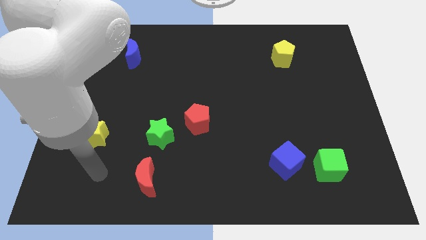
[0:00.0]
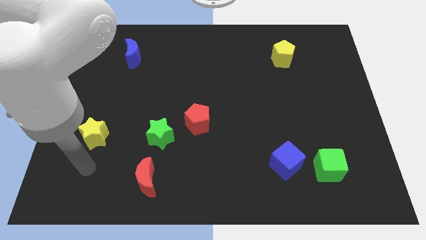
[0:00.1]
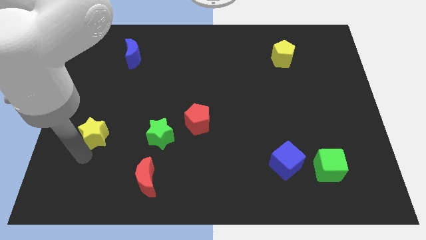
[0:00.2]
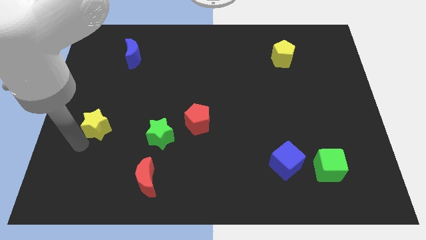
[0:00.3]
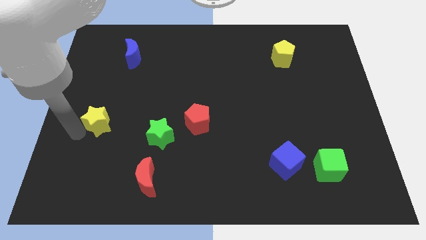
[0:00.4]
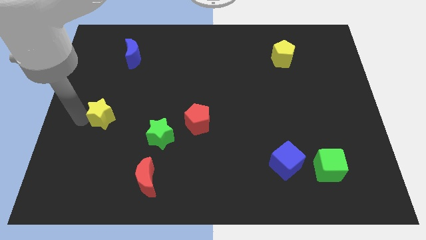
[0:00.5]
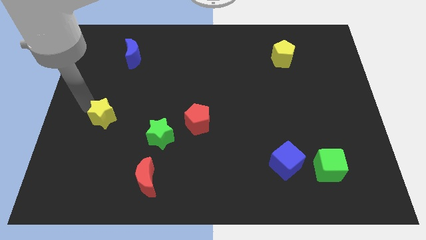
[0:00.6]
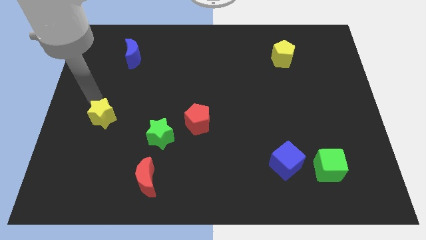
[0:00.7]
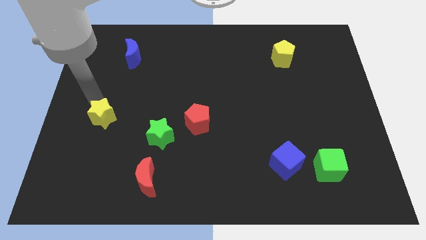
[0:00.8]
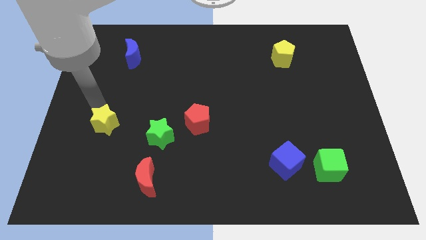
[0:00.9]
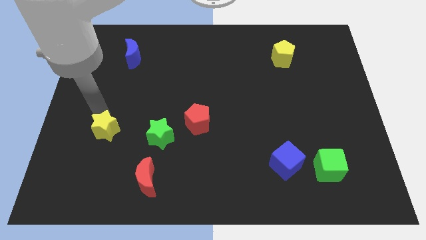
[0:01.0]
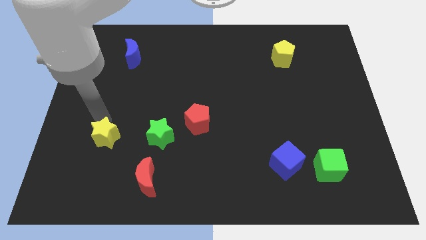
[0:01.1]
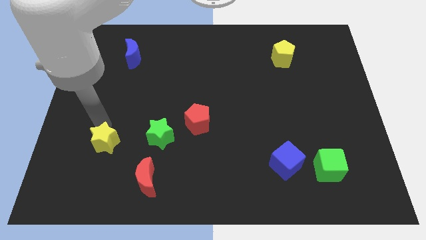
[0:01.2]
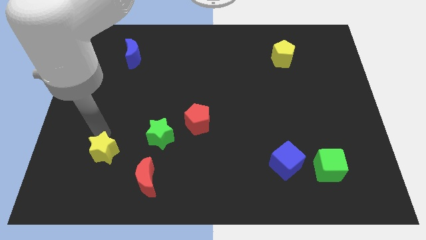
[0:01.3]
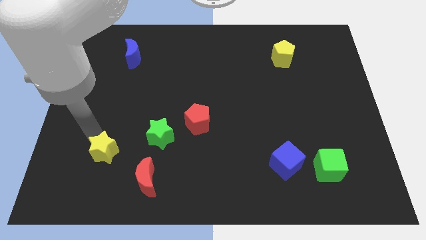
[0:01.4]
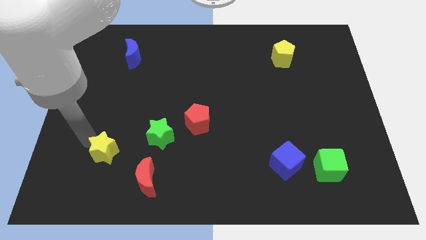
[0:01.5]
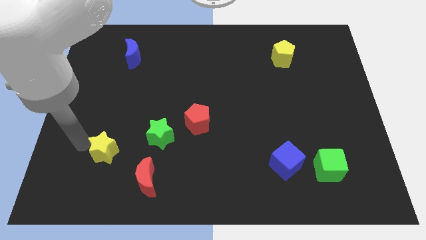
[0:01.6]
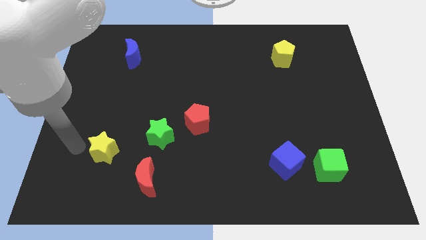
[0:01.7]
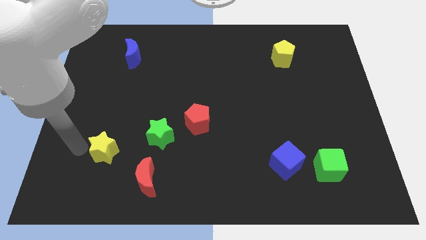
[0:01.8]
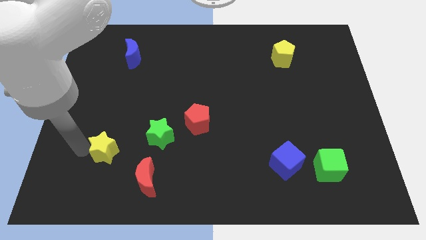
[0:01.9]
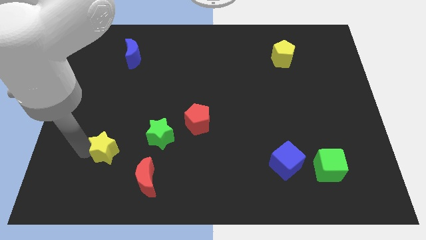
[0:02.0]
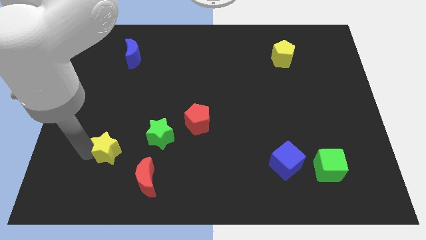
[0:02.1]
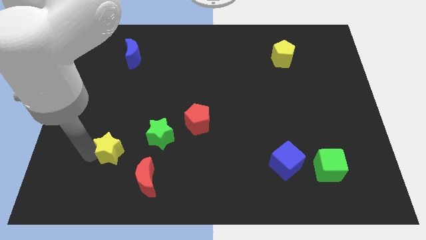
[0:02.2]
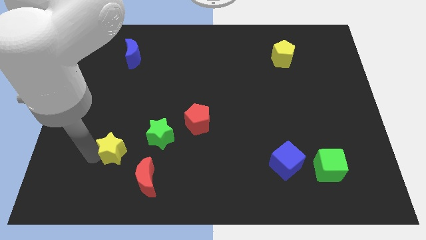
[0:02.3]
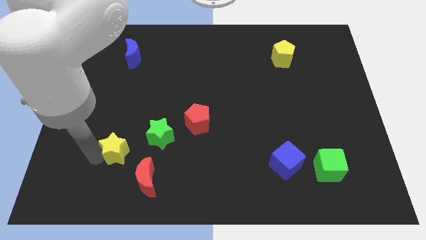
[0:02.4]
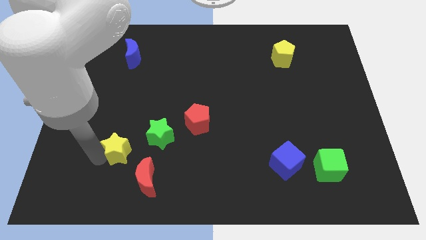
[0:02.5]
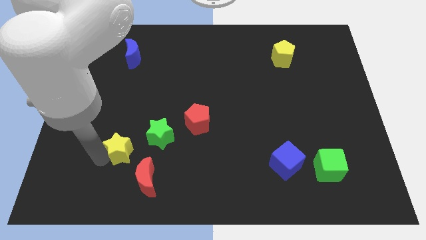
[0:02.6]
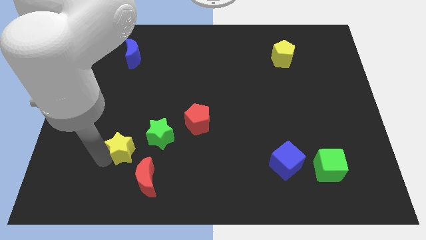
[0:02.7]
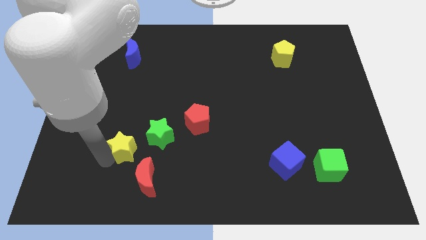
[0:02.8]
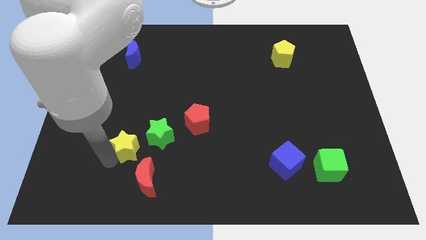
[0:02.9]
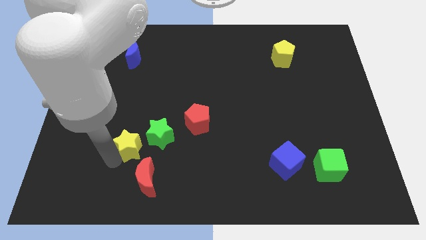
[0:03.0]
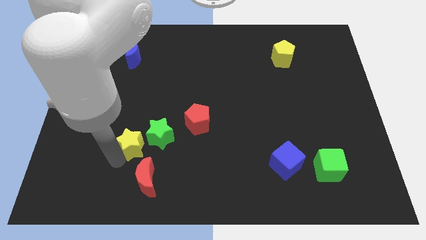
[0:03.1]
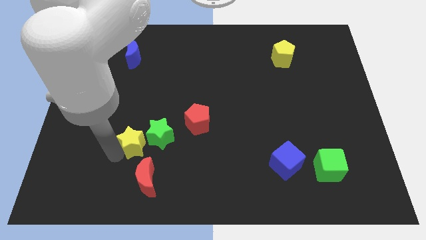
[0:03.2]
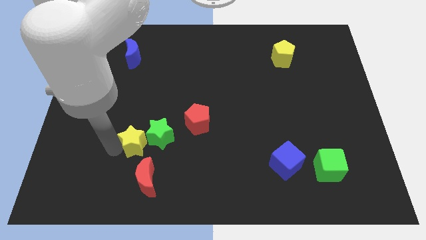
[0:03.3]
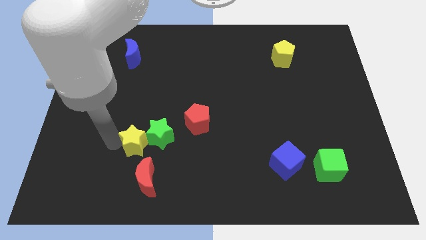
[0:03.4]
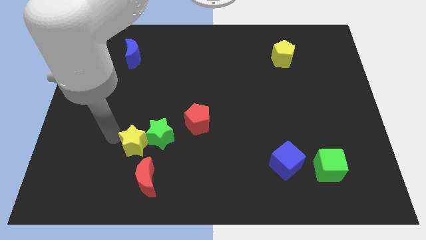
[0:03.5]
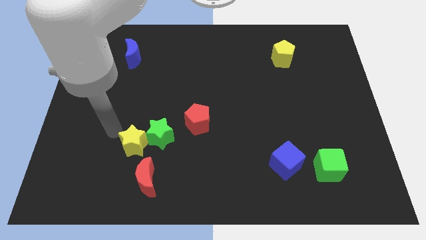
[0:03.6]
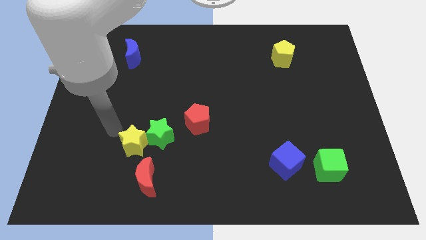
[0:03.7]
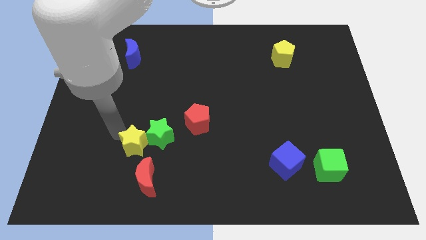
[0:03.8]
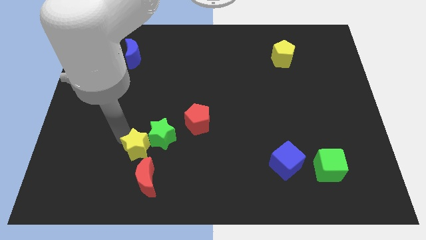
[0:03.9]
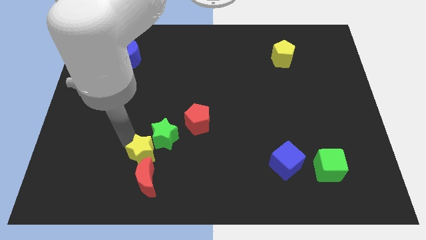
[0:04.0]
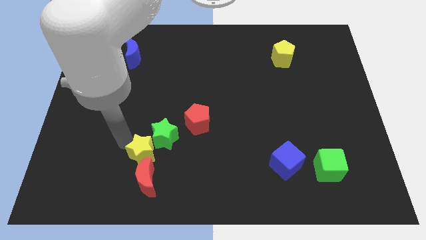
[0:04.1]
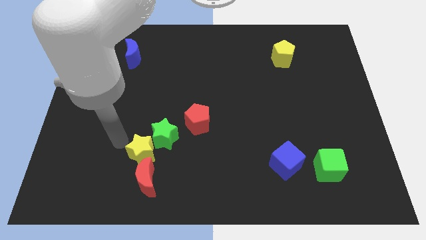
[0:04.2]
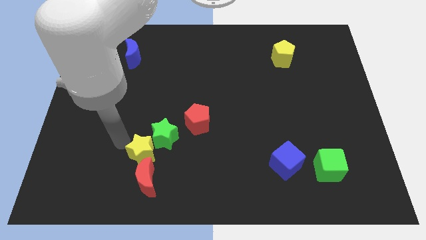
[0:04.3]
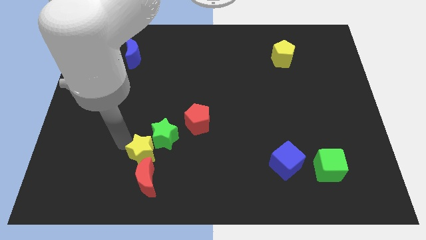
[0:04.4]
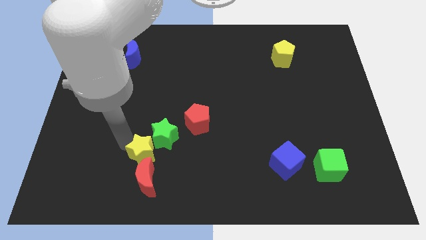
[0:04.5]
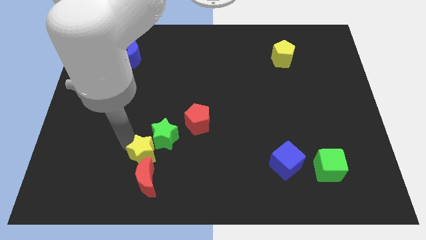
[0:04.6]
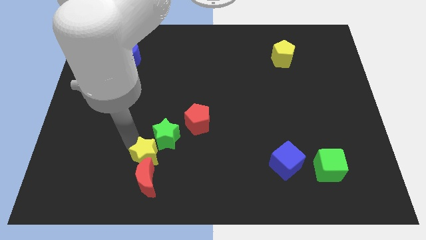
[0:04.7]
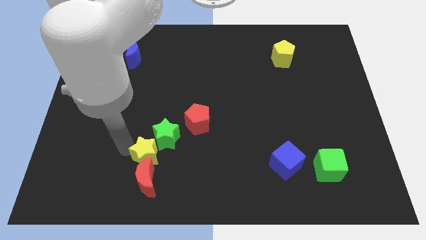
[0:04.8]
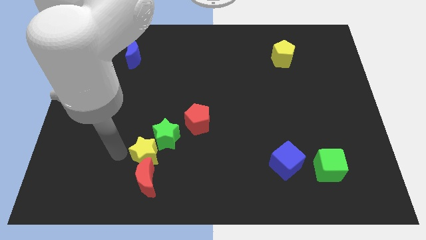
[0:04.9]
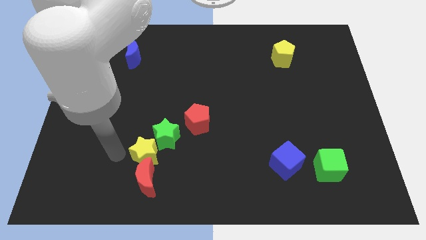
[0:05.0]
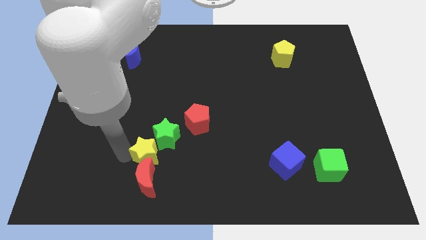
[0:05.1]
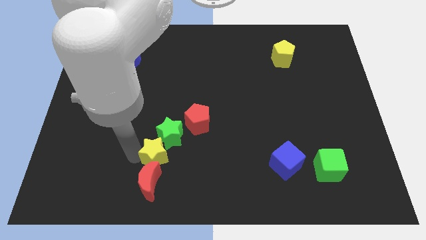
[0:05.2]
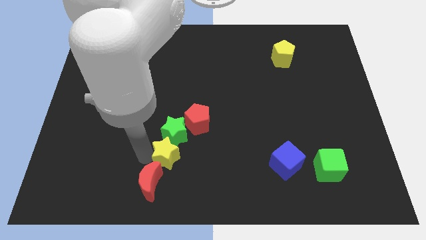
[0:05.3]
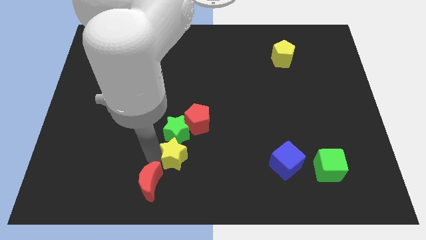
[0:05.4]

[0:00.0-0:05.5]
put the yellow star diagonally down and to the right of the green star
